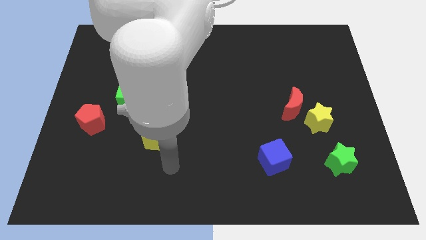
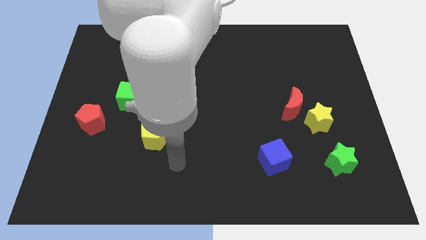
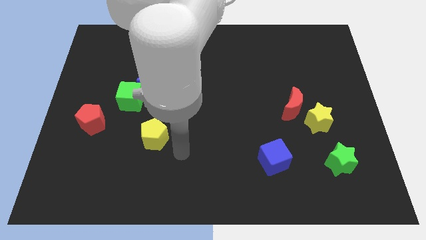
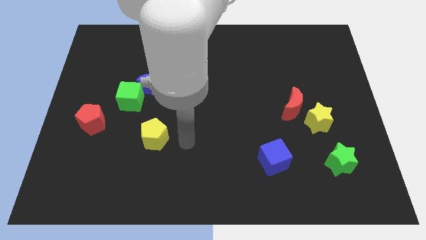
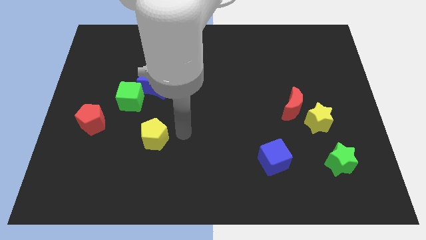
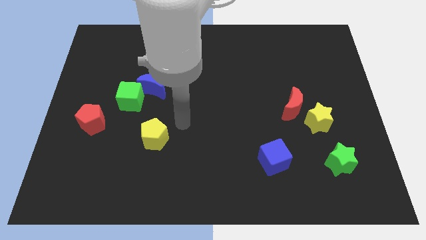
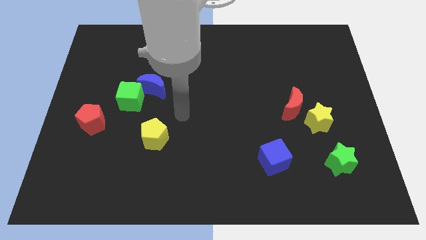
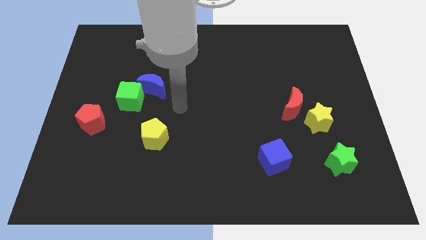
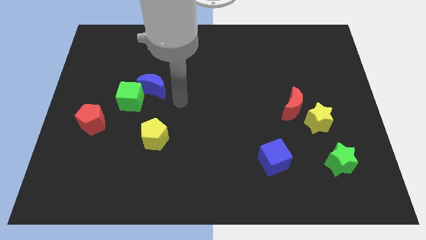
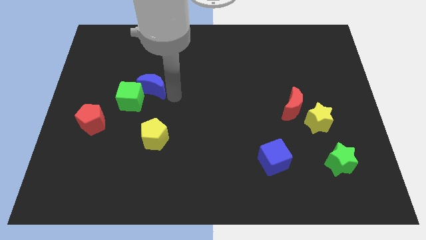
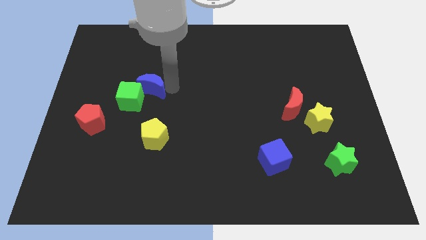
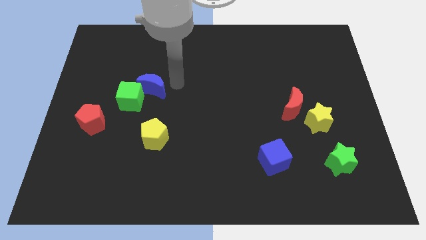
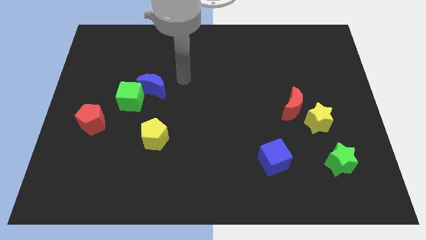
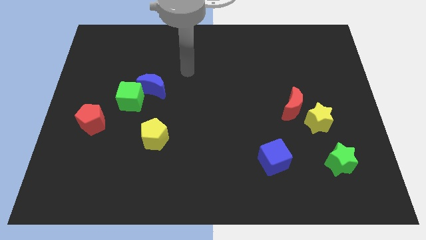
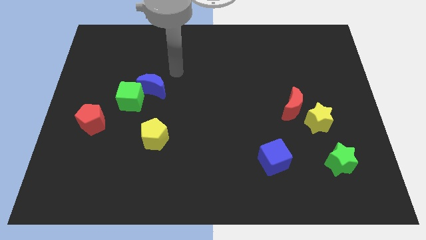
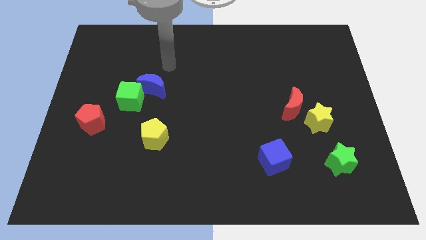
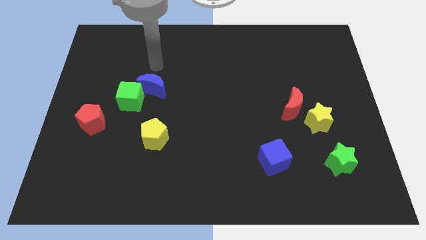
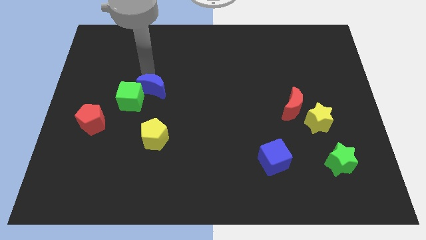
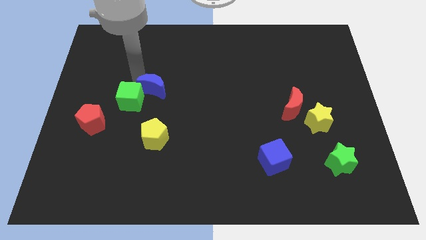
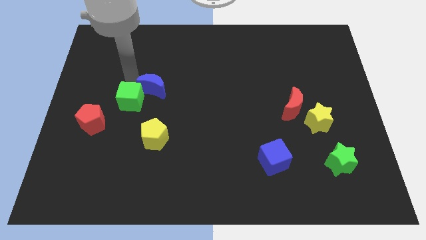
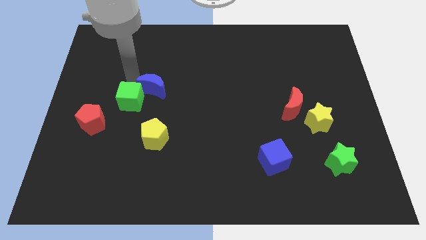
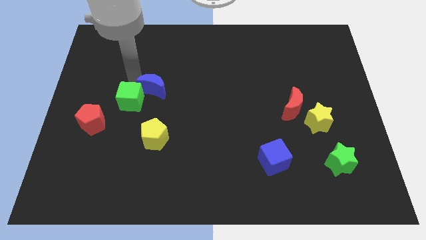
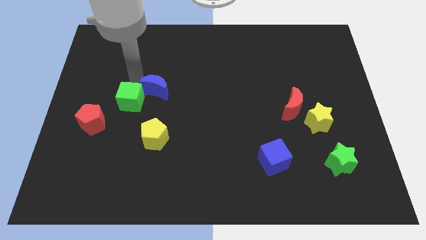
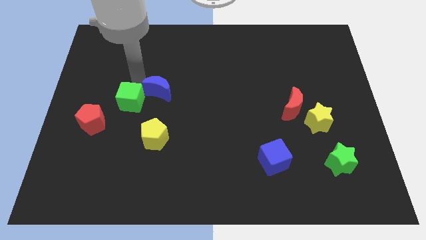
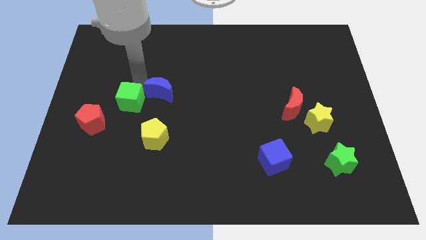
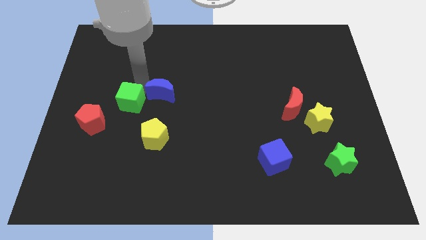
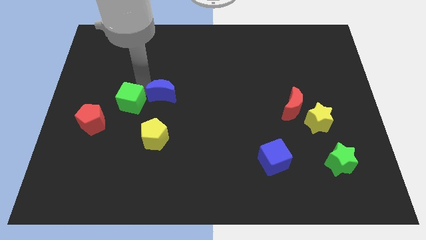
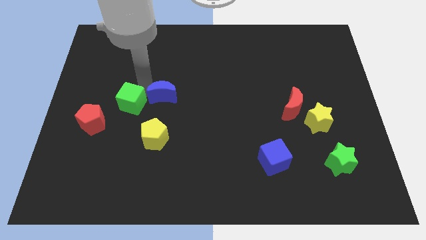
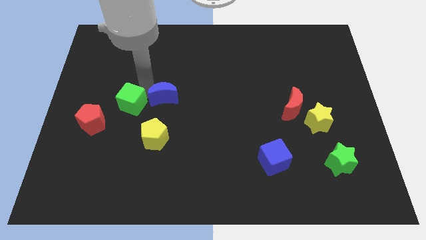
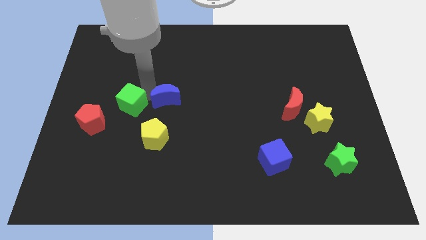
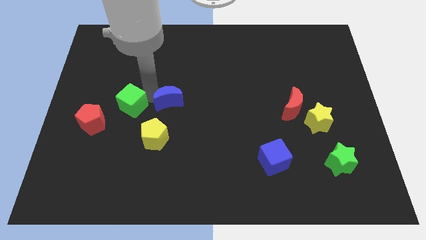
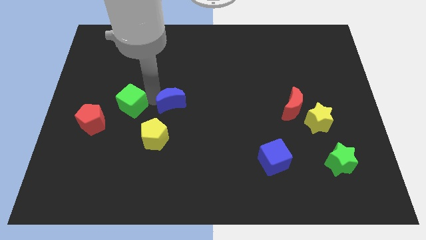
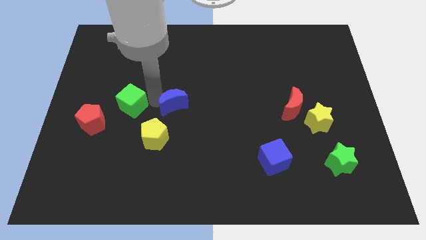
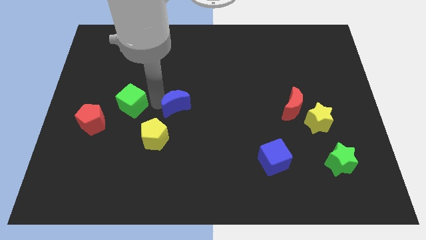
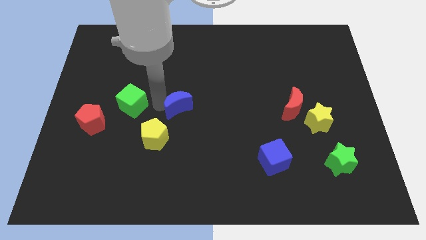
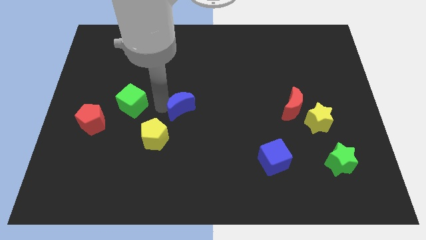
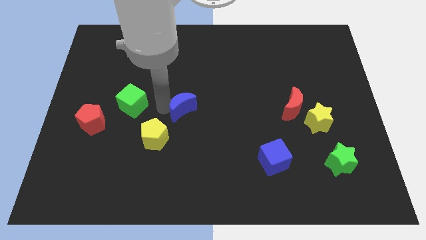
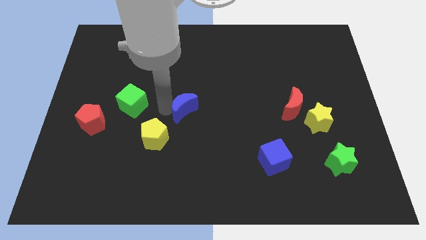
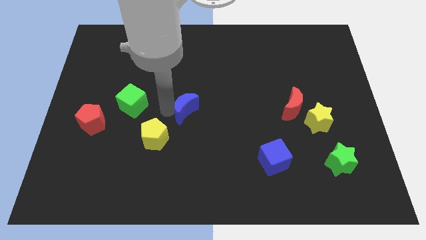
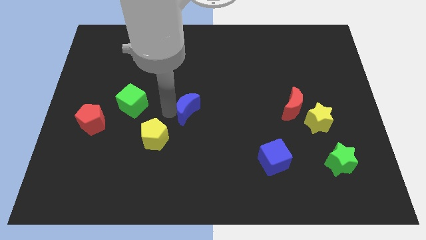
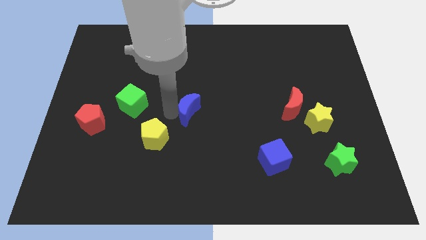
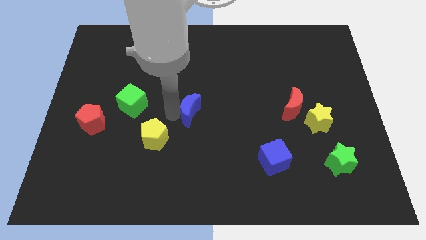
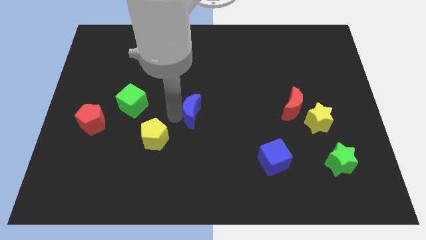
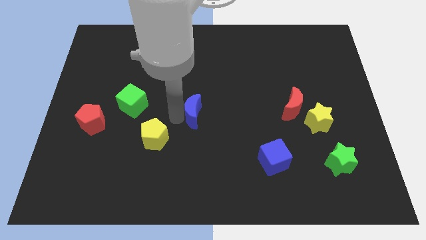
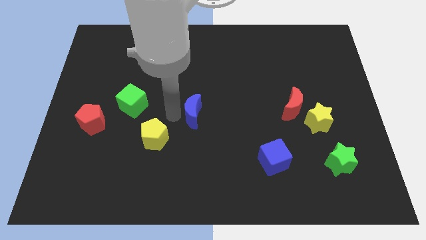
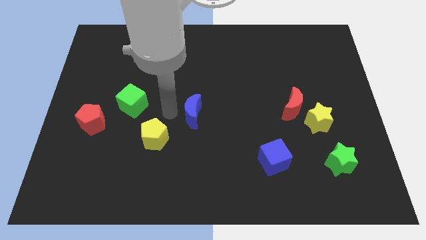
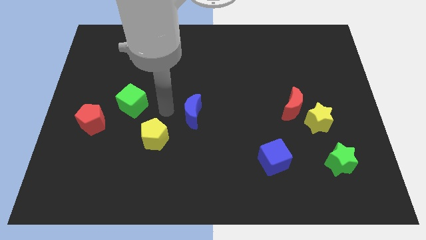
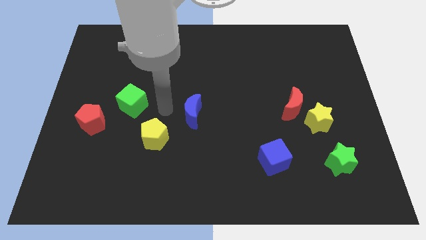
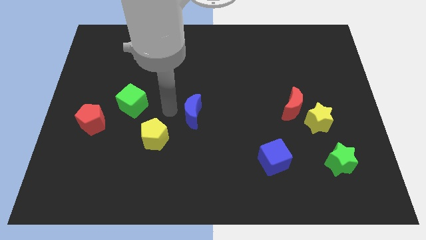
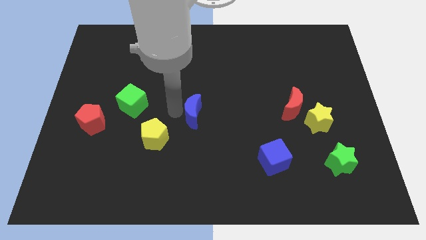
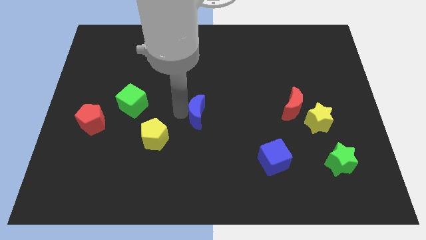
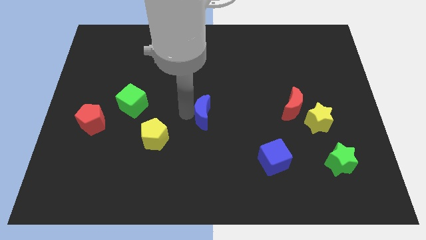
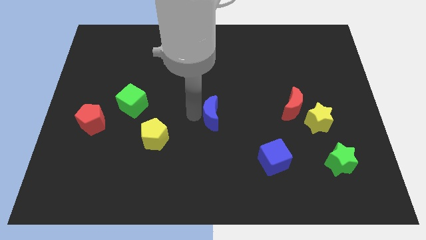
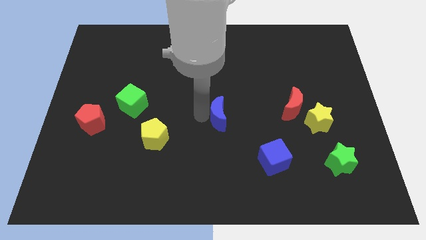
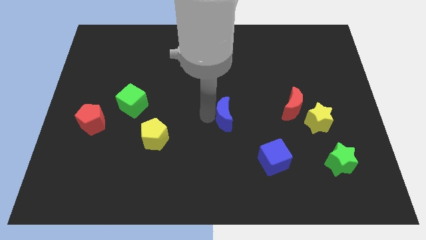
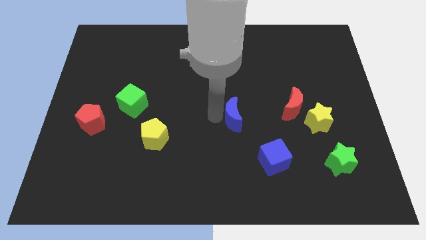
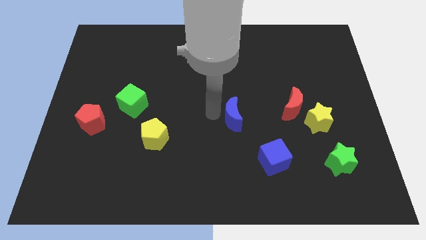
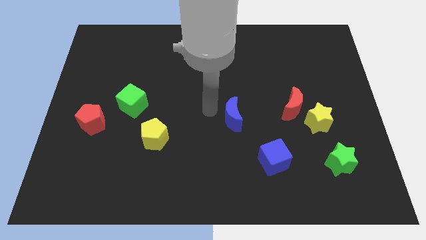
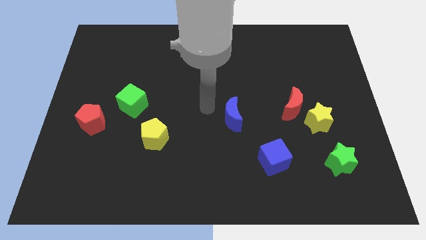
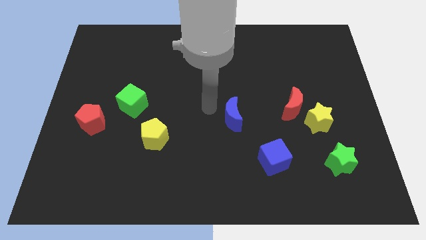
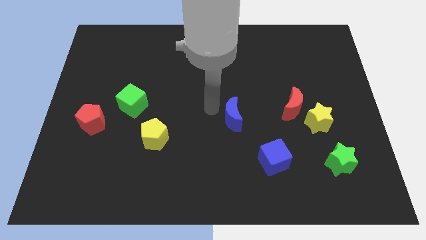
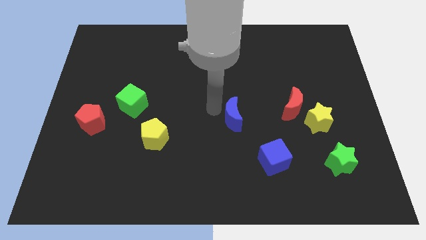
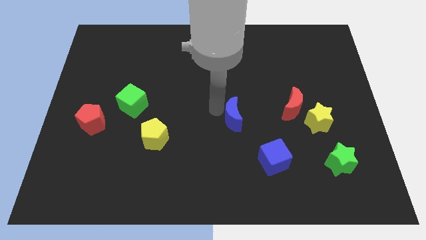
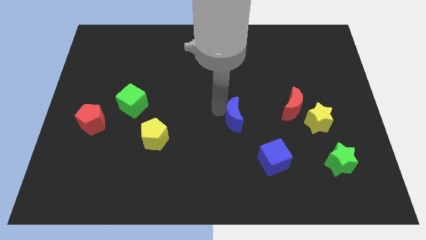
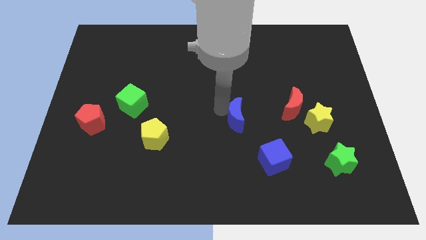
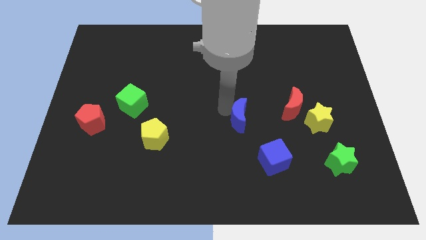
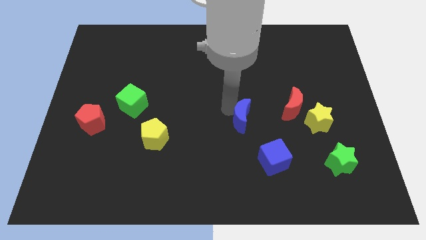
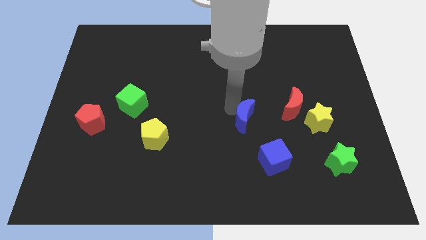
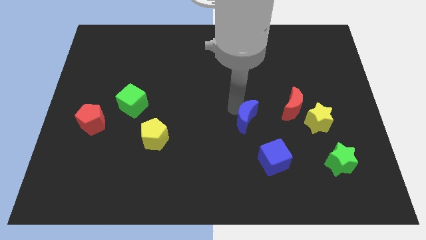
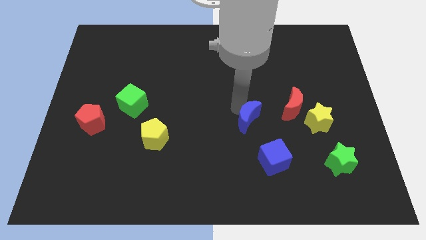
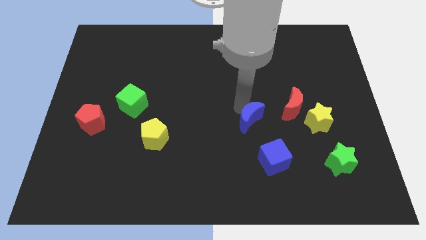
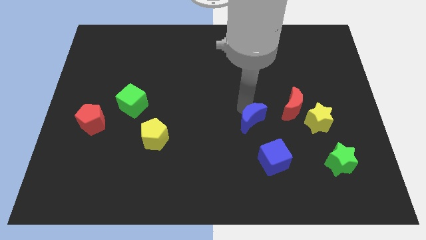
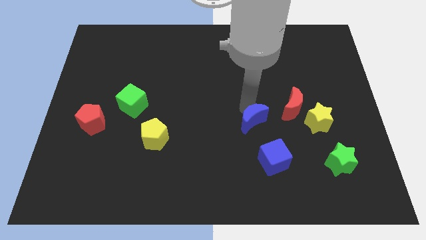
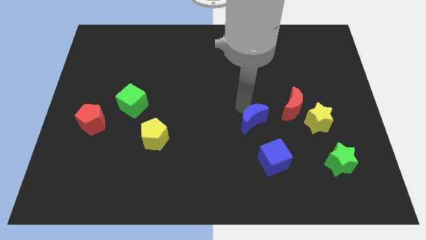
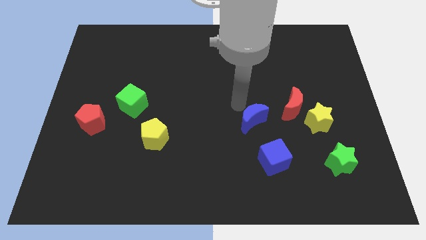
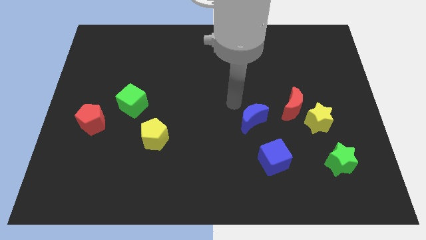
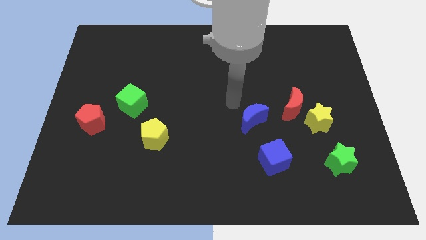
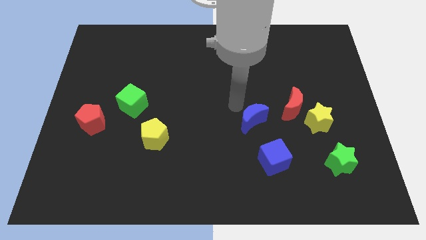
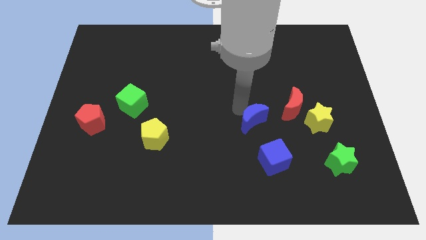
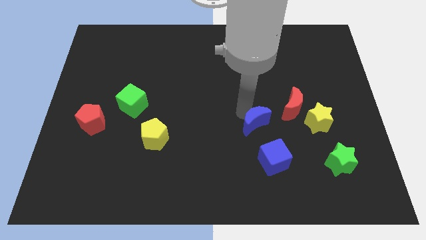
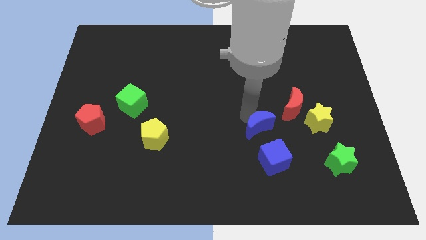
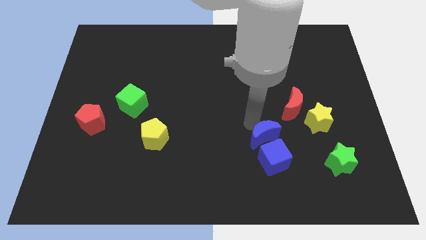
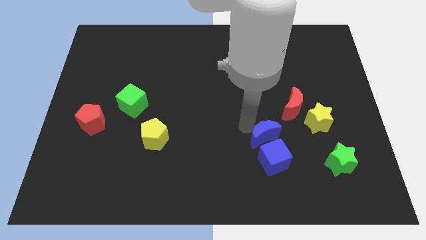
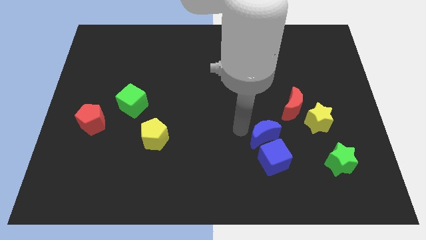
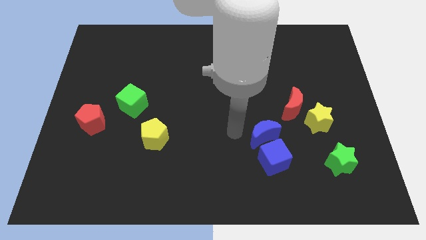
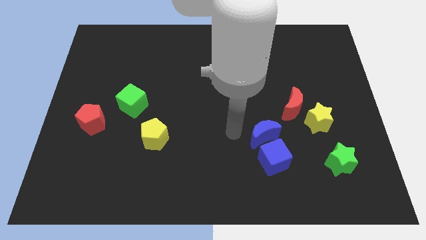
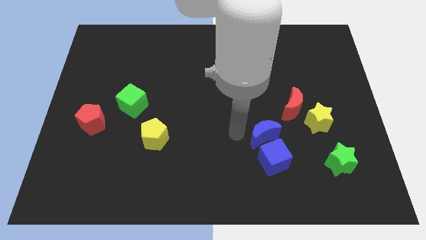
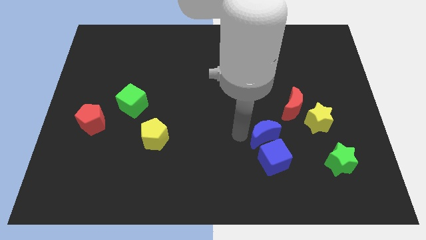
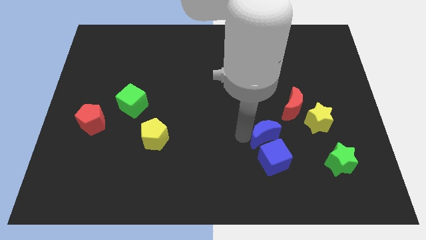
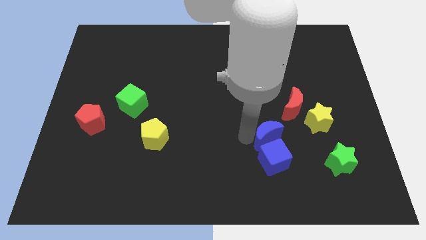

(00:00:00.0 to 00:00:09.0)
put the blue moon to the top right of the blue cube
